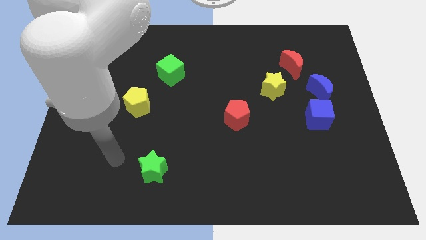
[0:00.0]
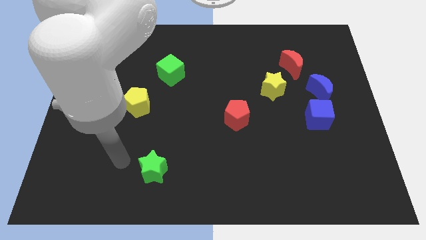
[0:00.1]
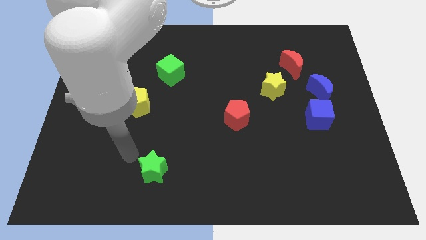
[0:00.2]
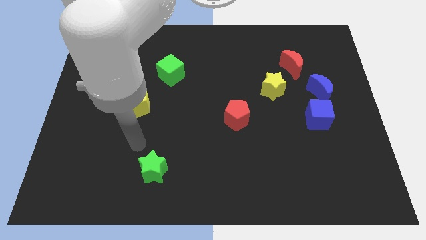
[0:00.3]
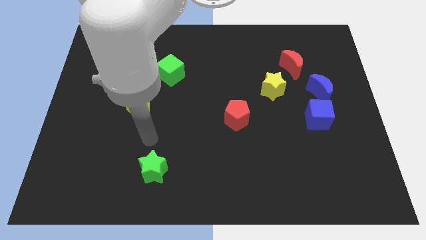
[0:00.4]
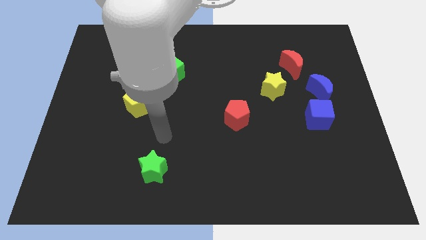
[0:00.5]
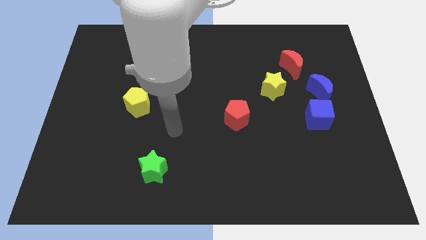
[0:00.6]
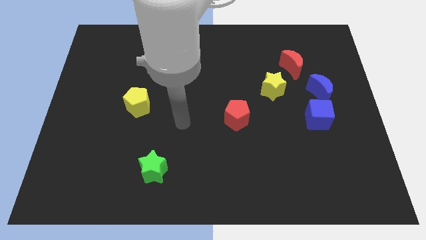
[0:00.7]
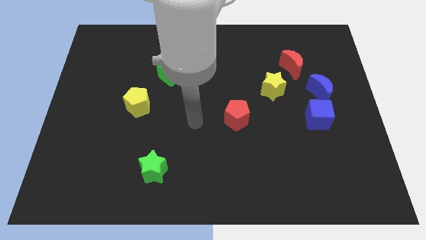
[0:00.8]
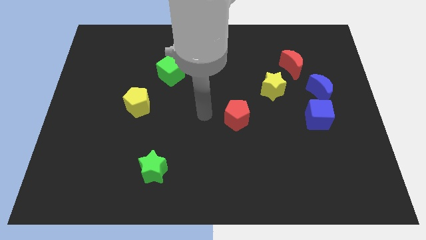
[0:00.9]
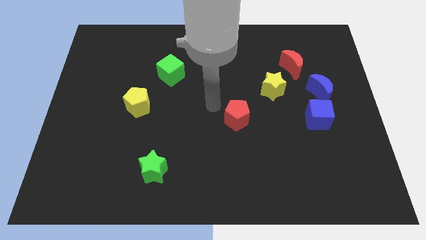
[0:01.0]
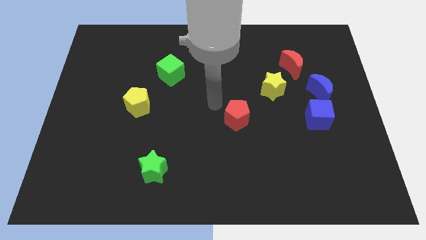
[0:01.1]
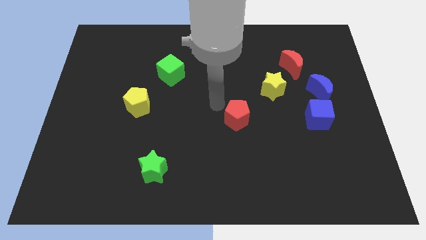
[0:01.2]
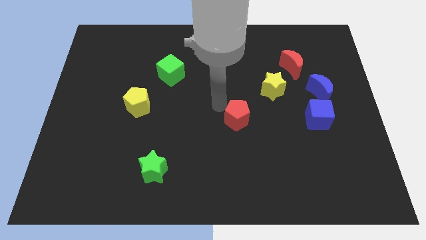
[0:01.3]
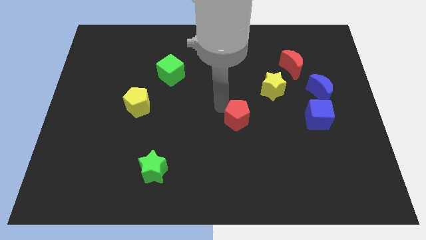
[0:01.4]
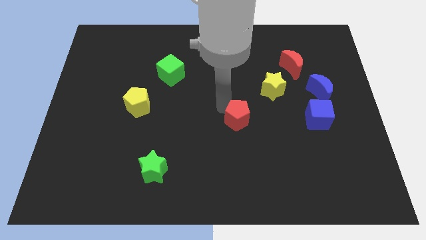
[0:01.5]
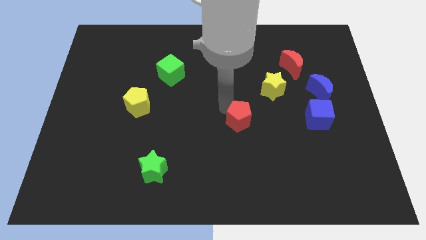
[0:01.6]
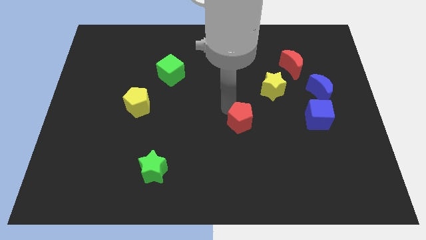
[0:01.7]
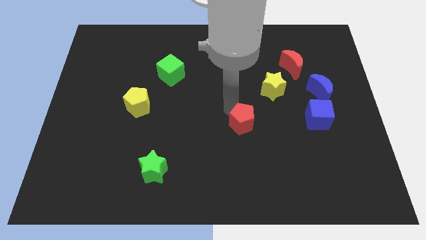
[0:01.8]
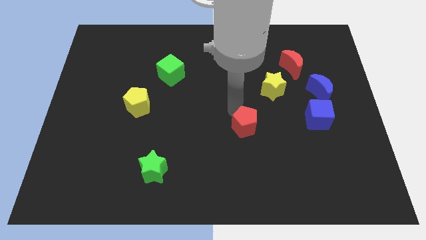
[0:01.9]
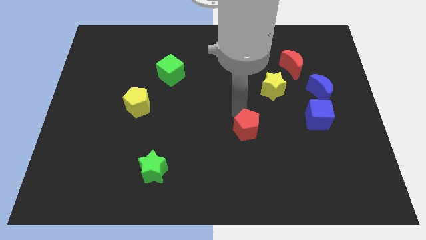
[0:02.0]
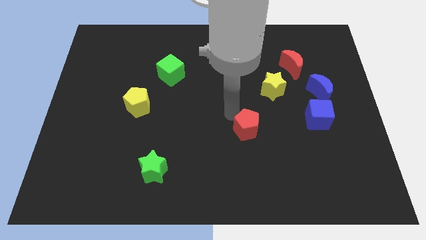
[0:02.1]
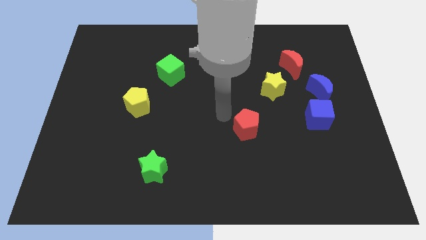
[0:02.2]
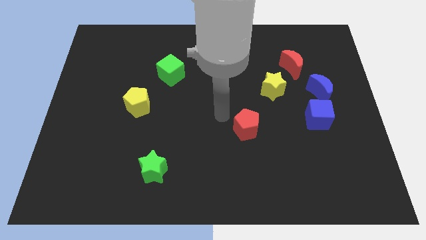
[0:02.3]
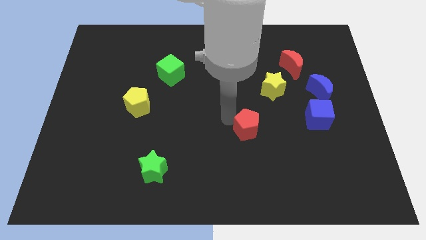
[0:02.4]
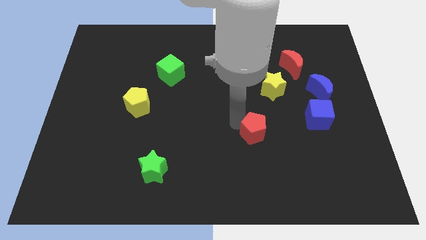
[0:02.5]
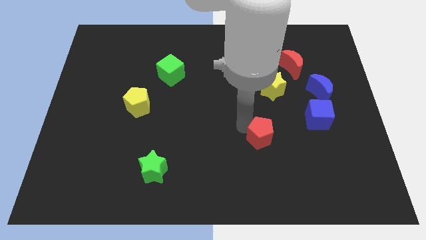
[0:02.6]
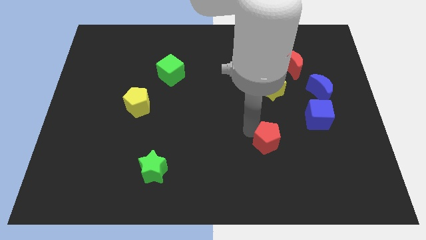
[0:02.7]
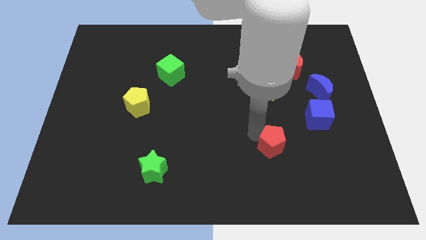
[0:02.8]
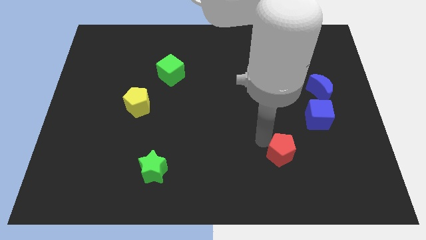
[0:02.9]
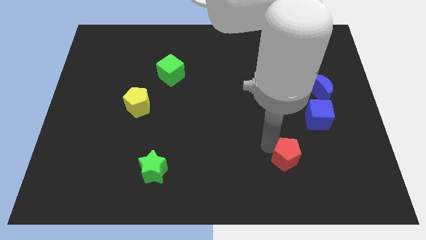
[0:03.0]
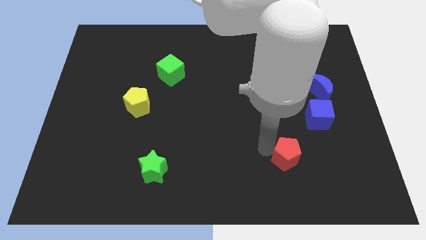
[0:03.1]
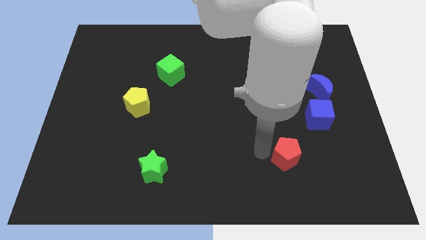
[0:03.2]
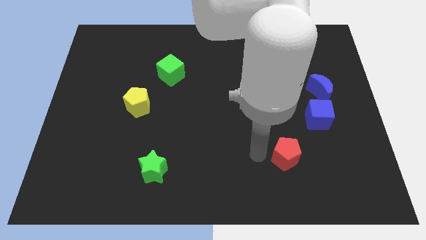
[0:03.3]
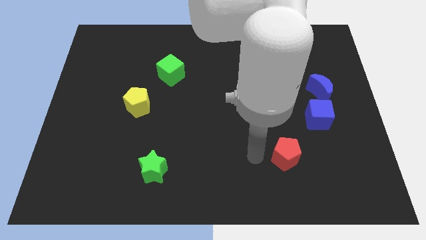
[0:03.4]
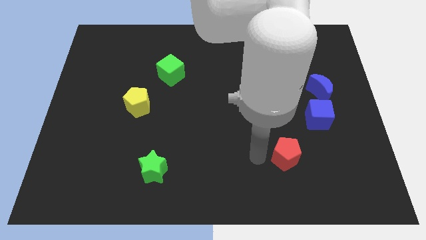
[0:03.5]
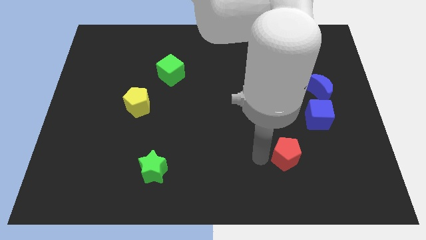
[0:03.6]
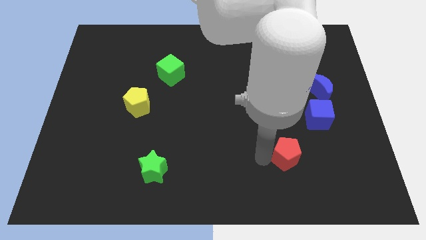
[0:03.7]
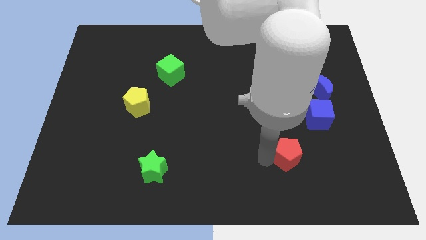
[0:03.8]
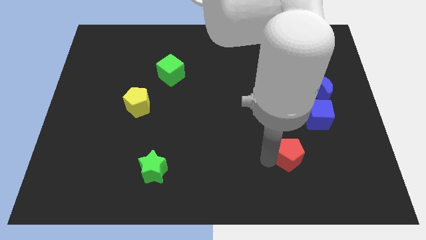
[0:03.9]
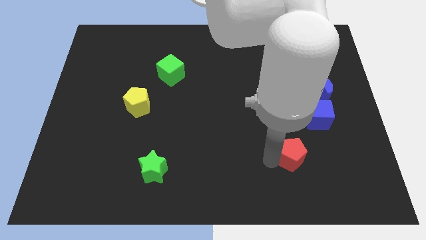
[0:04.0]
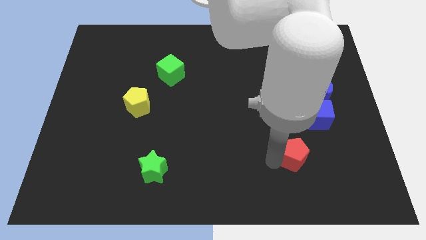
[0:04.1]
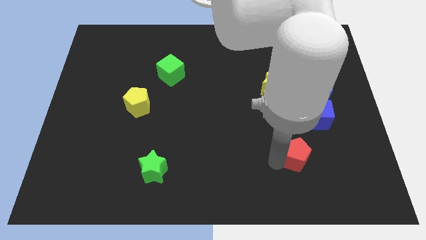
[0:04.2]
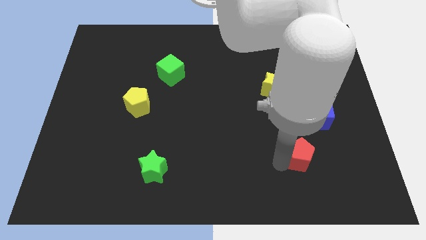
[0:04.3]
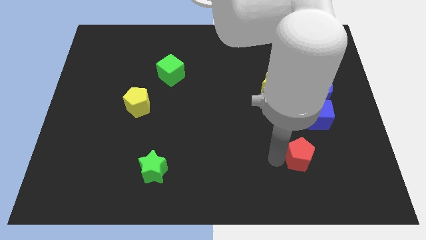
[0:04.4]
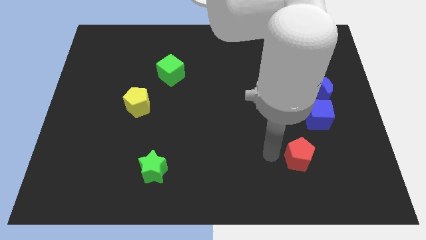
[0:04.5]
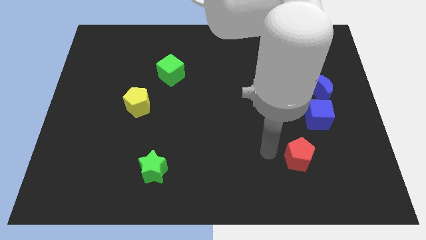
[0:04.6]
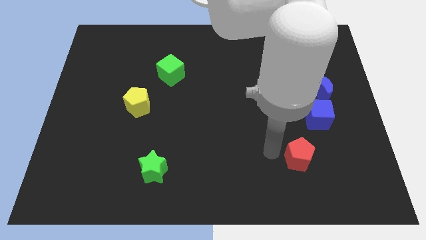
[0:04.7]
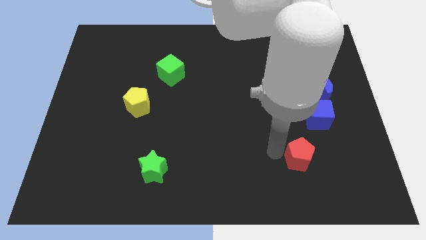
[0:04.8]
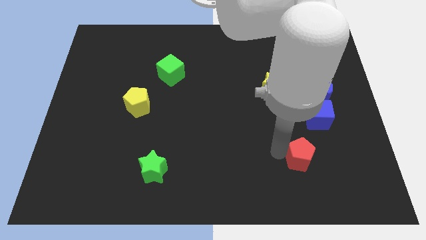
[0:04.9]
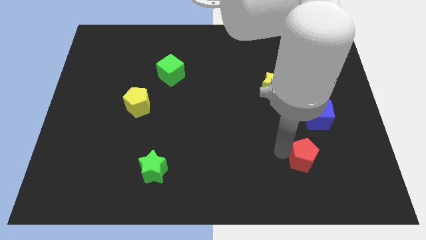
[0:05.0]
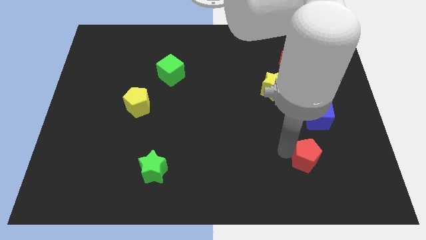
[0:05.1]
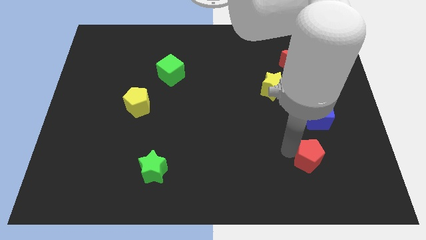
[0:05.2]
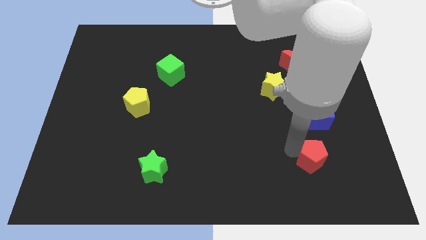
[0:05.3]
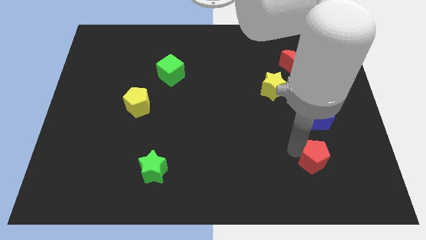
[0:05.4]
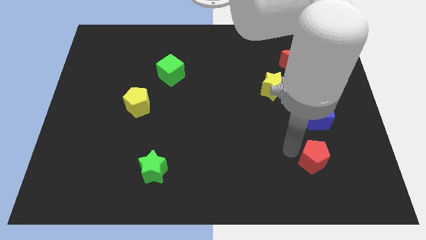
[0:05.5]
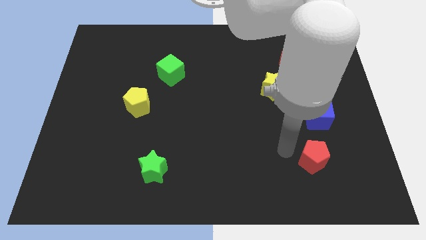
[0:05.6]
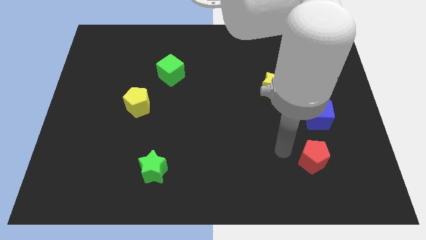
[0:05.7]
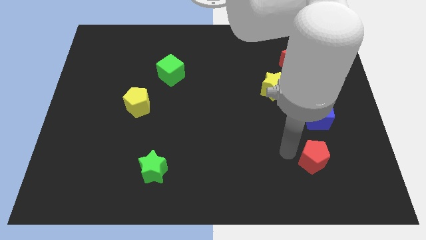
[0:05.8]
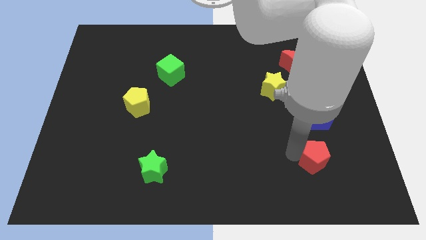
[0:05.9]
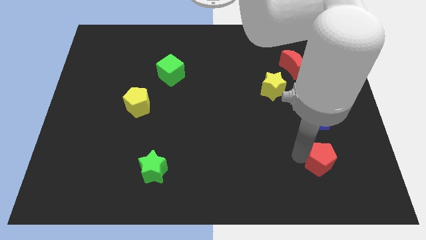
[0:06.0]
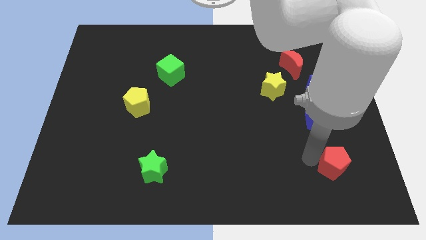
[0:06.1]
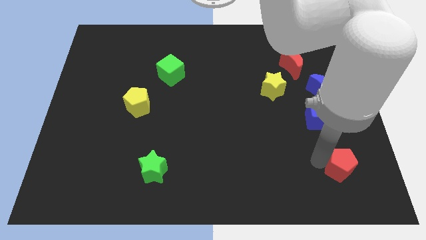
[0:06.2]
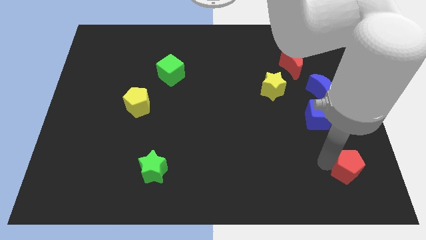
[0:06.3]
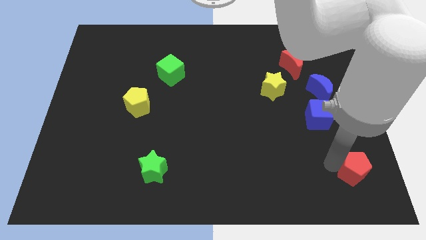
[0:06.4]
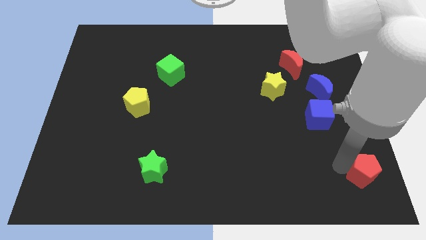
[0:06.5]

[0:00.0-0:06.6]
push the red pentagon to the bottom right
